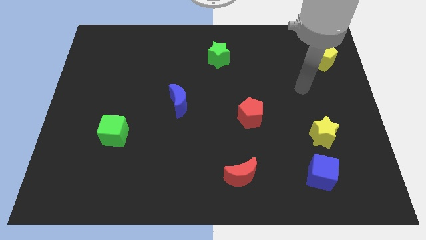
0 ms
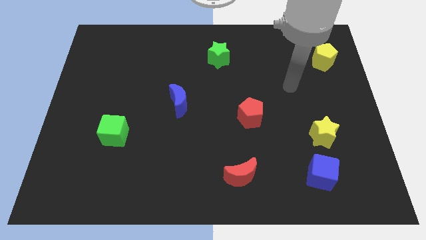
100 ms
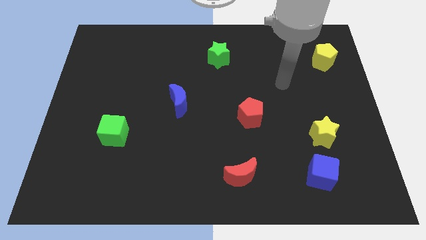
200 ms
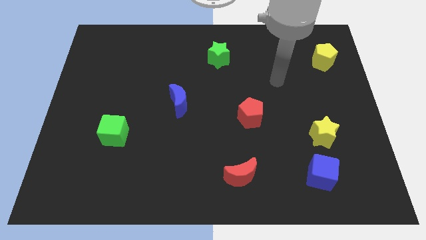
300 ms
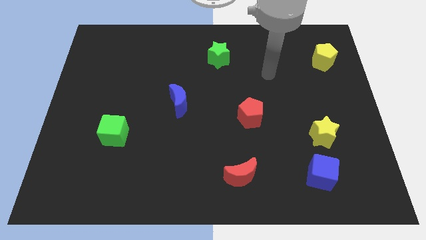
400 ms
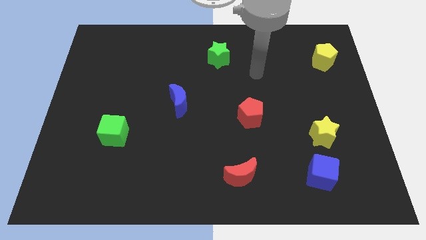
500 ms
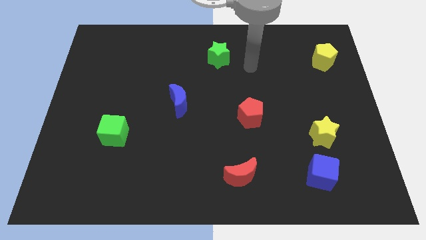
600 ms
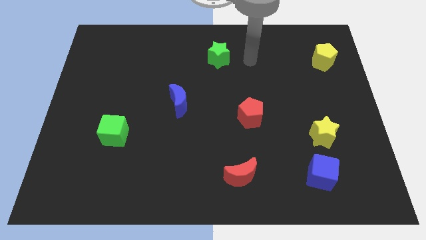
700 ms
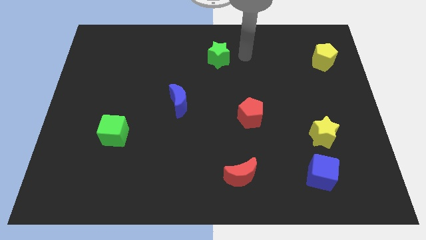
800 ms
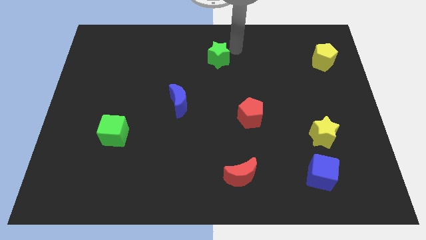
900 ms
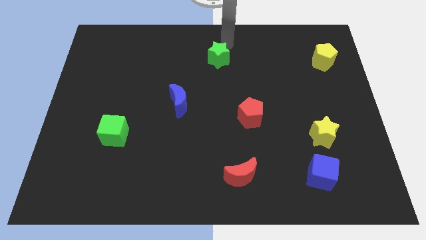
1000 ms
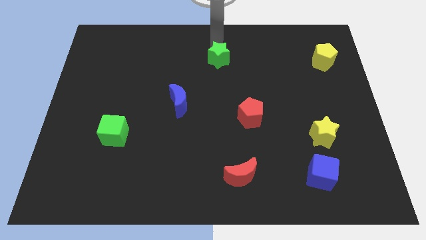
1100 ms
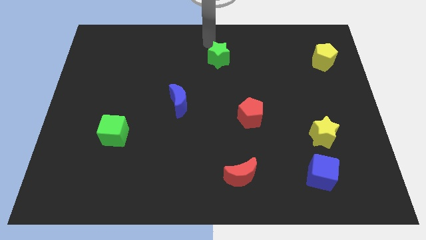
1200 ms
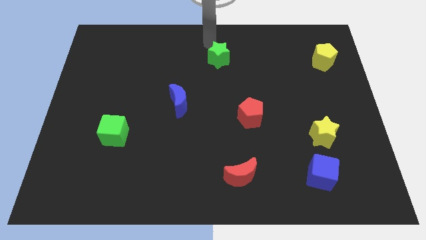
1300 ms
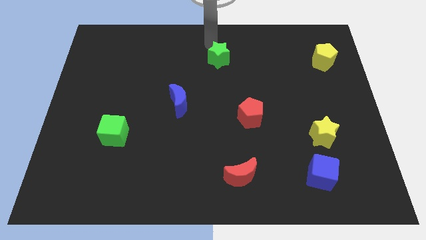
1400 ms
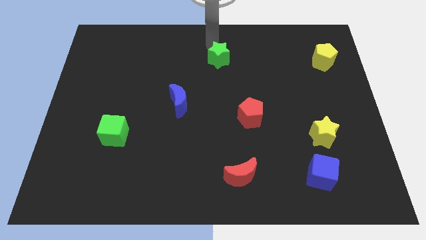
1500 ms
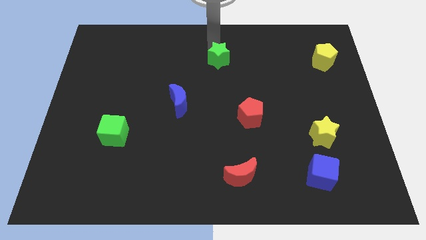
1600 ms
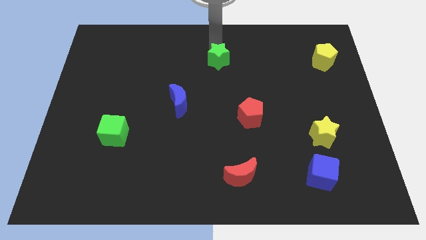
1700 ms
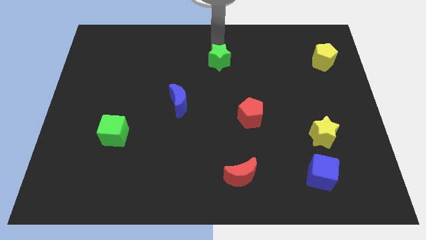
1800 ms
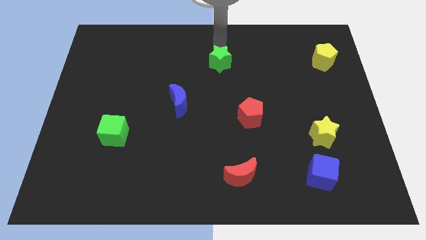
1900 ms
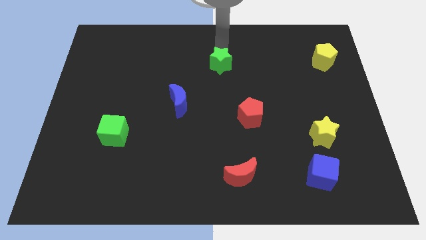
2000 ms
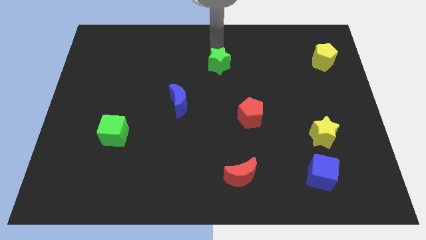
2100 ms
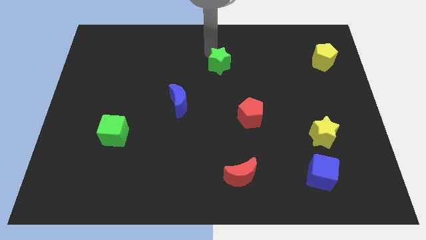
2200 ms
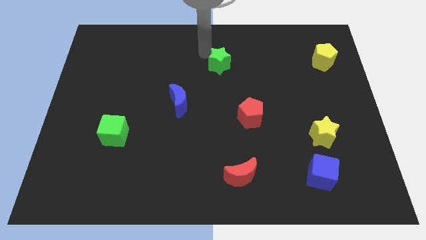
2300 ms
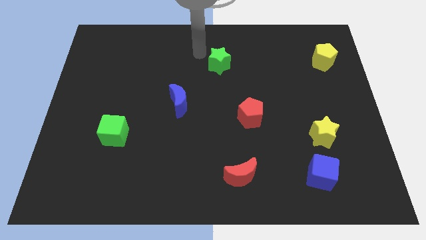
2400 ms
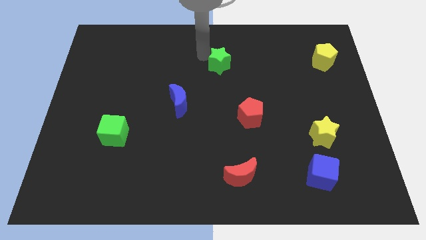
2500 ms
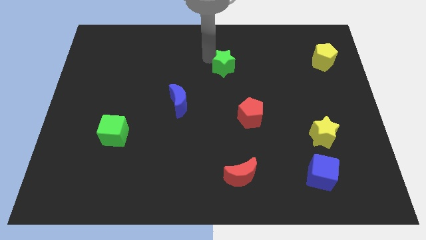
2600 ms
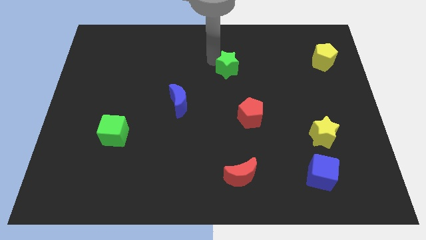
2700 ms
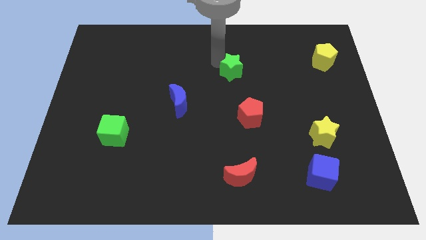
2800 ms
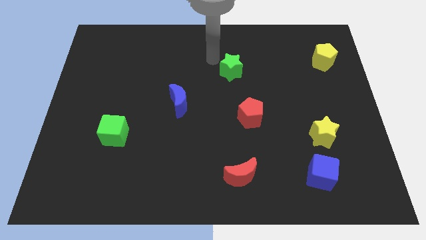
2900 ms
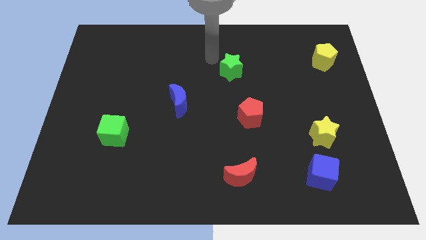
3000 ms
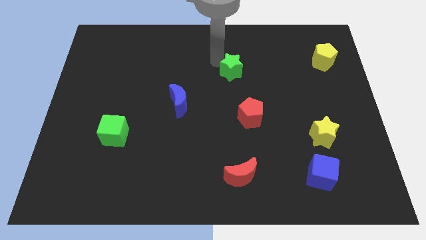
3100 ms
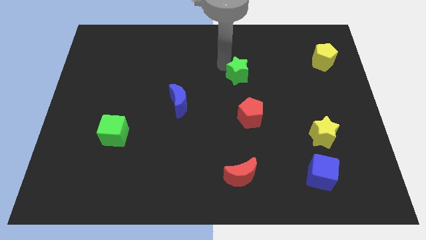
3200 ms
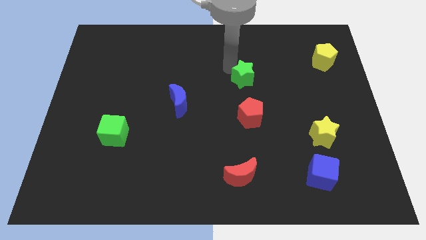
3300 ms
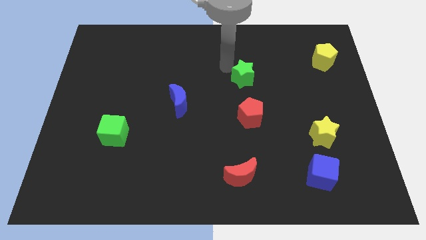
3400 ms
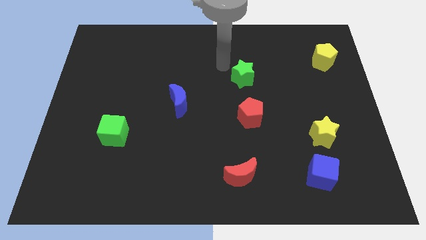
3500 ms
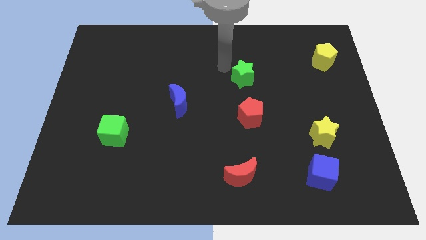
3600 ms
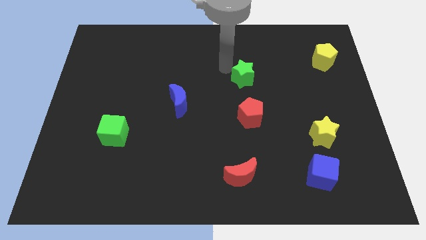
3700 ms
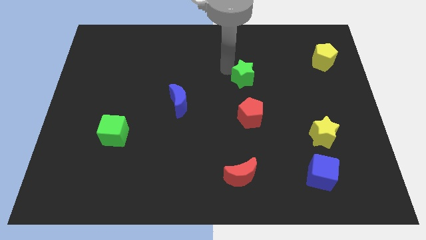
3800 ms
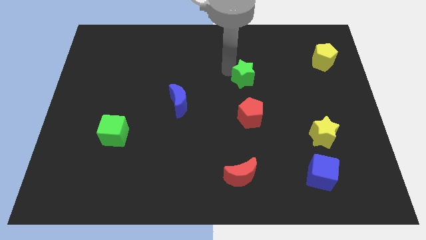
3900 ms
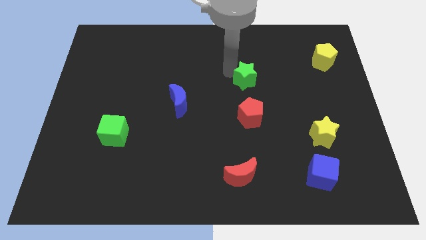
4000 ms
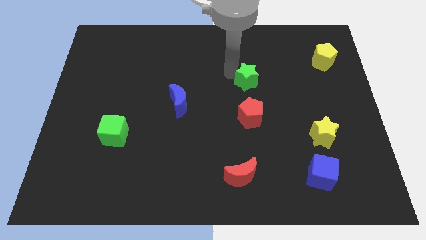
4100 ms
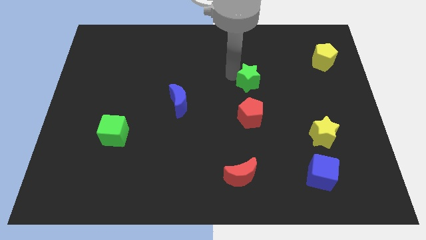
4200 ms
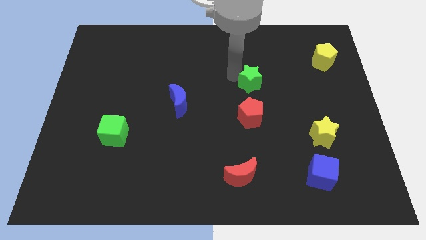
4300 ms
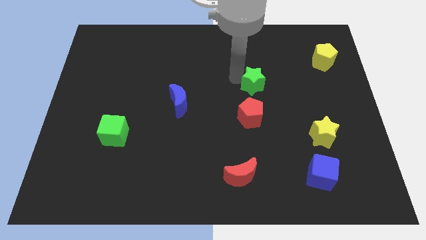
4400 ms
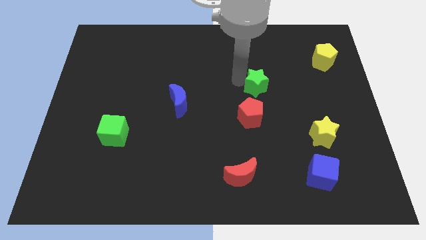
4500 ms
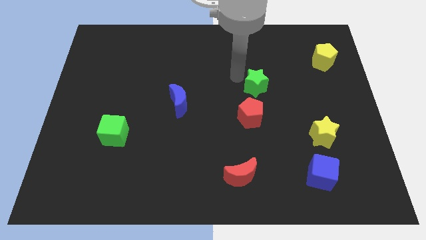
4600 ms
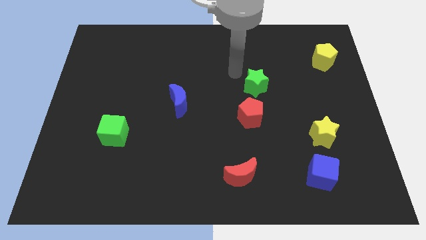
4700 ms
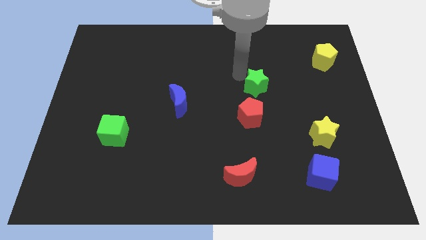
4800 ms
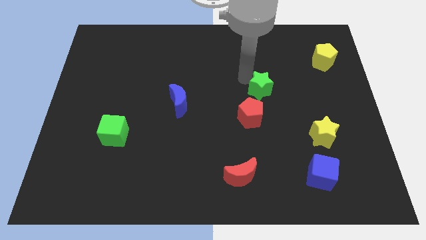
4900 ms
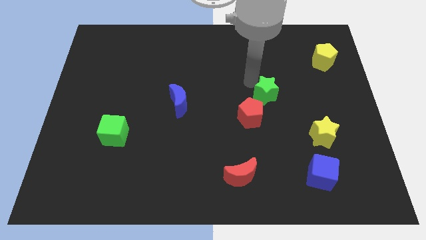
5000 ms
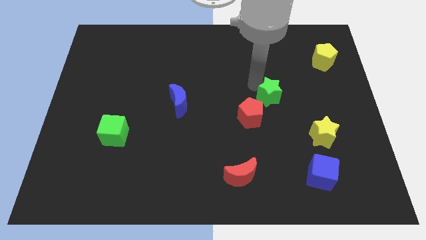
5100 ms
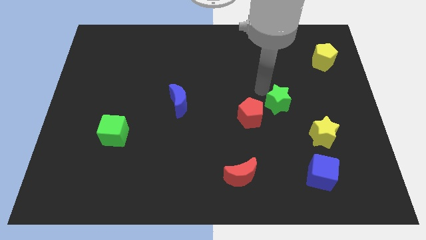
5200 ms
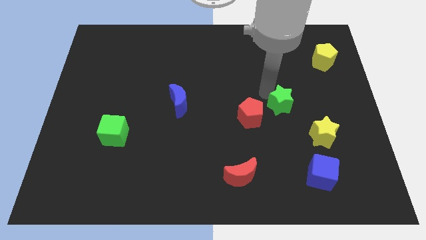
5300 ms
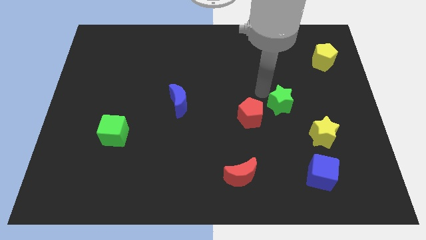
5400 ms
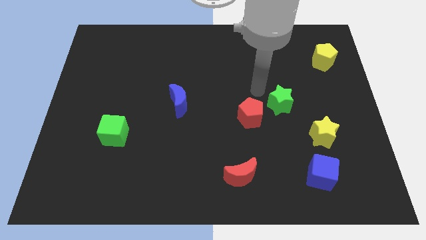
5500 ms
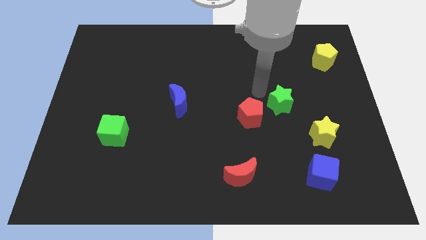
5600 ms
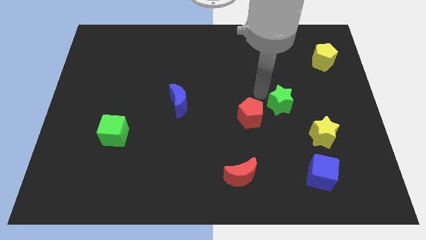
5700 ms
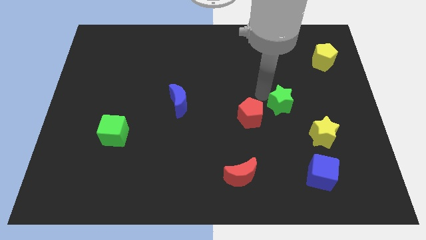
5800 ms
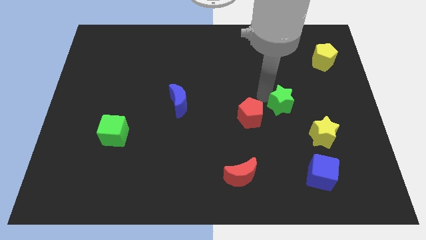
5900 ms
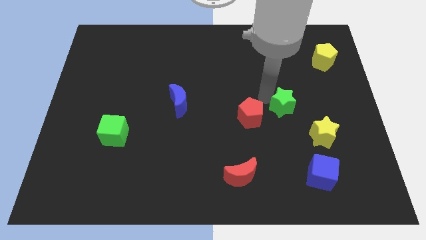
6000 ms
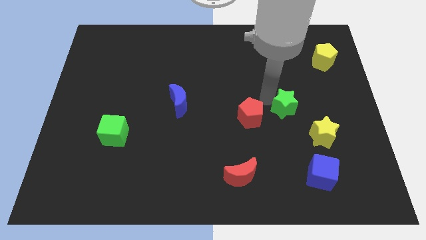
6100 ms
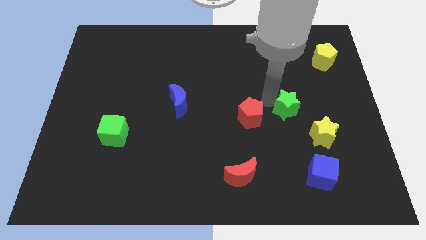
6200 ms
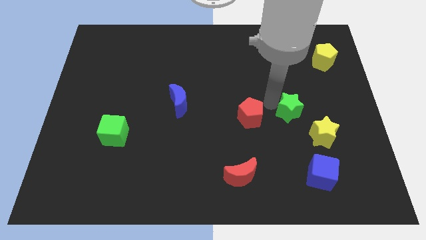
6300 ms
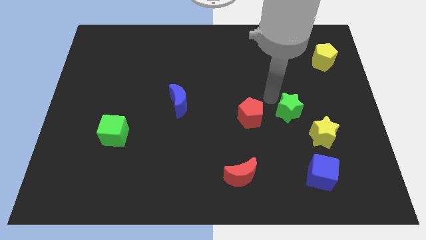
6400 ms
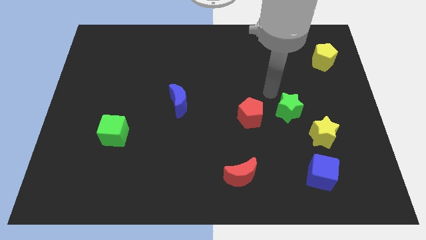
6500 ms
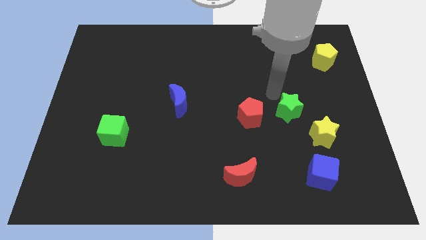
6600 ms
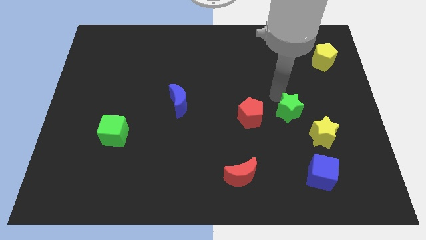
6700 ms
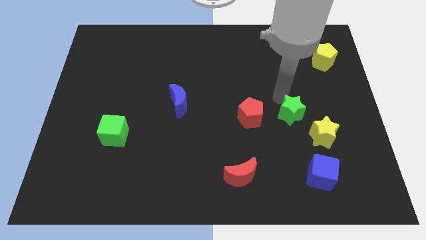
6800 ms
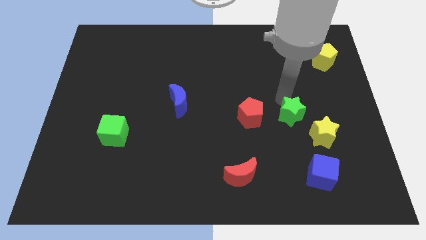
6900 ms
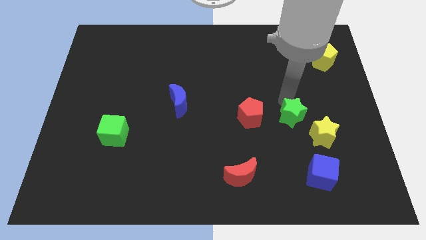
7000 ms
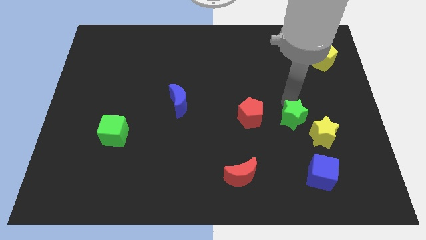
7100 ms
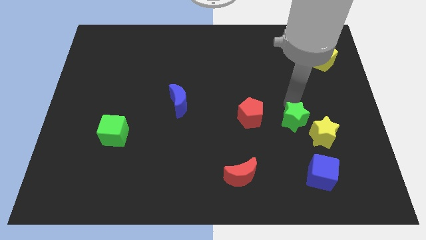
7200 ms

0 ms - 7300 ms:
slide the green star to the top of the blue cube

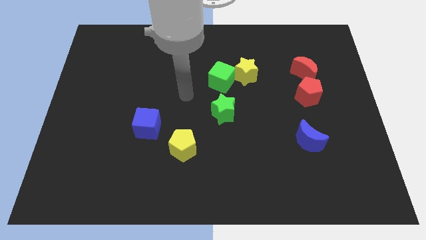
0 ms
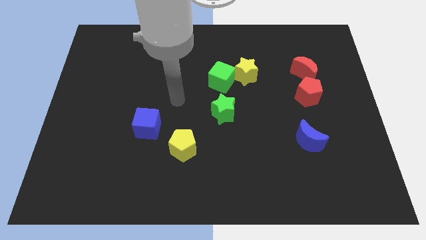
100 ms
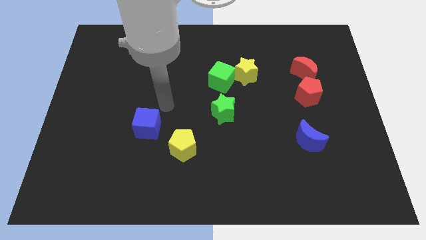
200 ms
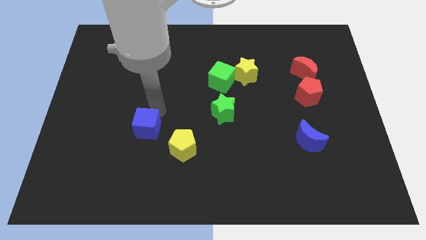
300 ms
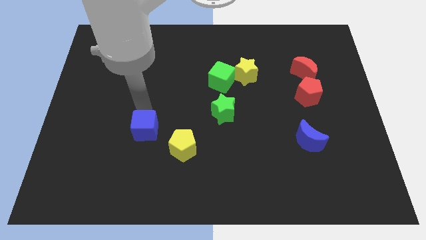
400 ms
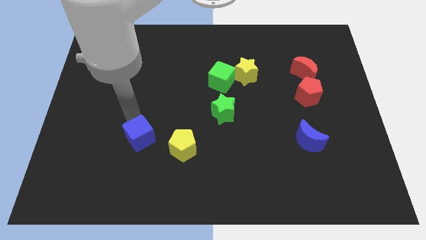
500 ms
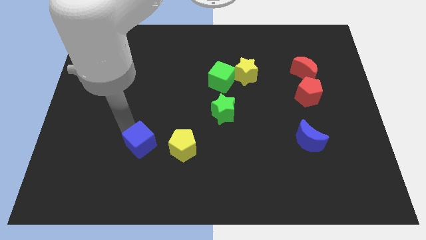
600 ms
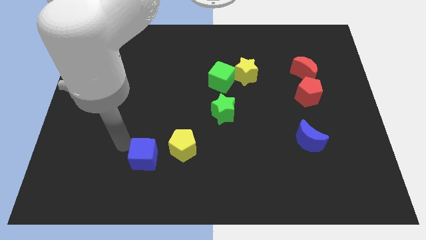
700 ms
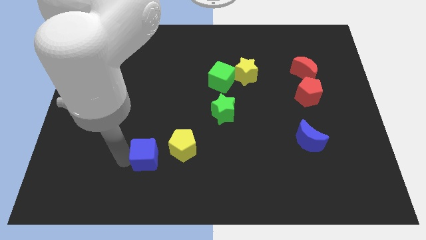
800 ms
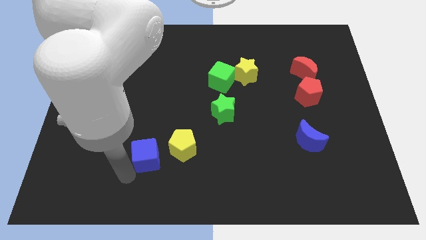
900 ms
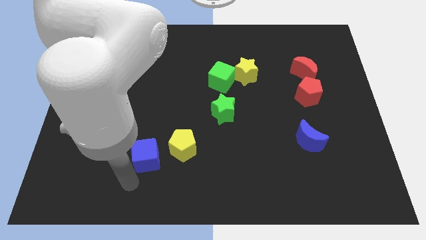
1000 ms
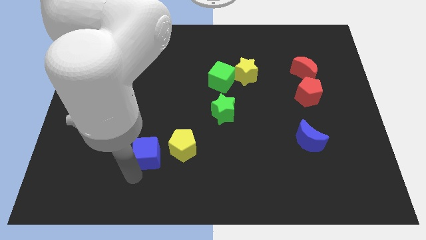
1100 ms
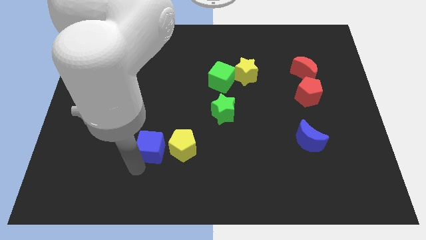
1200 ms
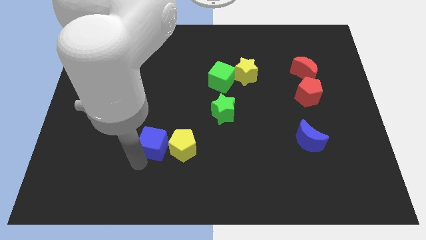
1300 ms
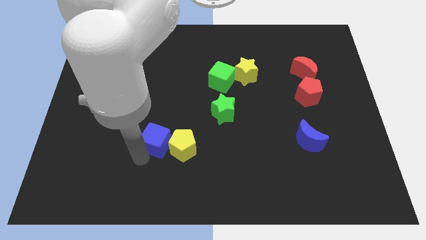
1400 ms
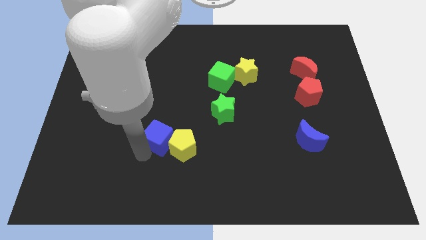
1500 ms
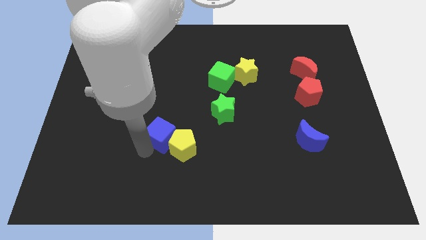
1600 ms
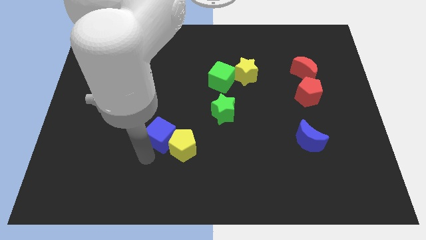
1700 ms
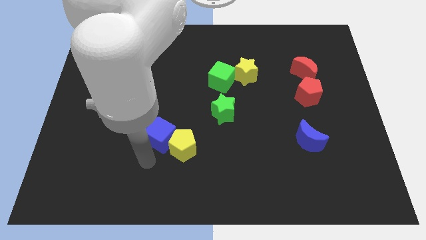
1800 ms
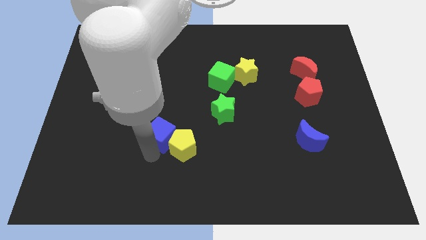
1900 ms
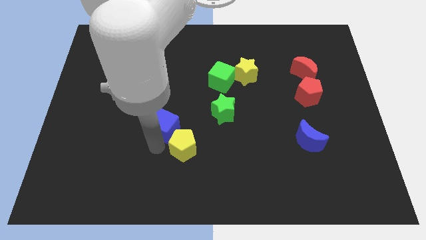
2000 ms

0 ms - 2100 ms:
slide the blue cube to the left side of the green star
